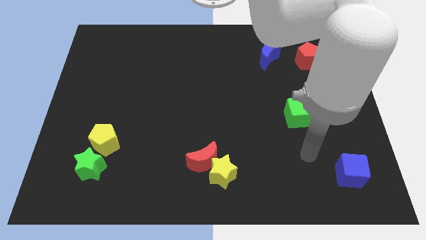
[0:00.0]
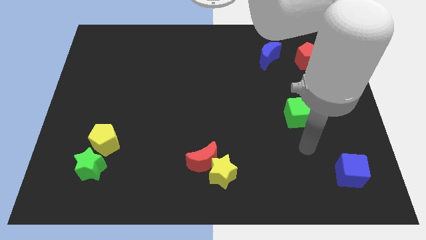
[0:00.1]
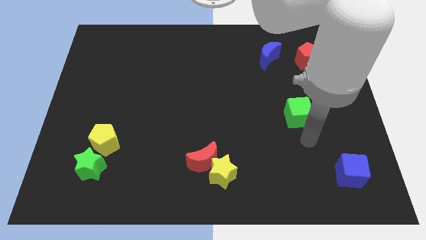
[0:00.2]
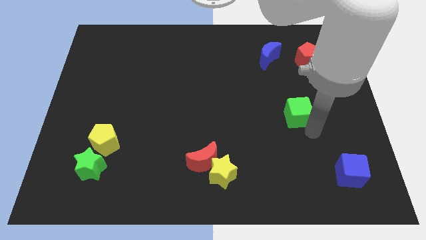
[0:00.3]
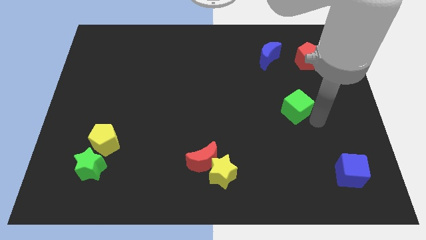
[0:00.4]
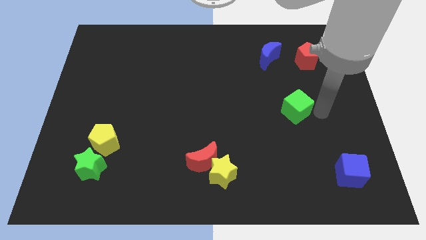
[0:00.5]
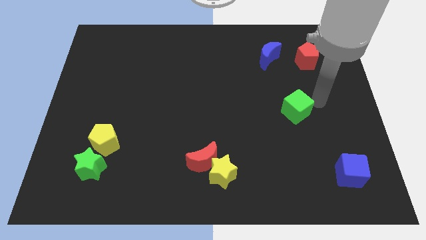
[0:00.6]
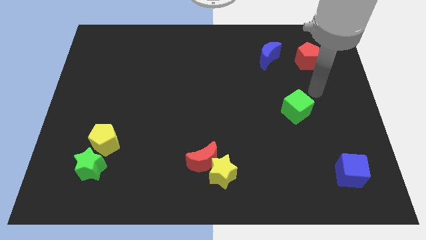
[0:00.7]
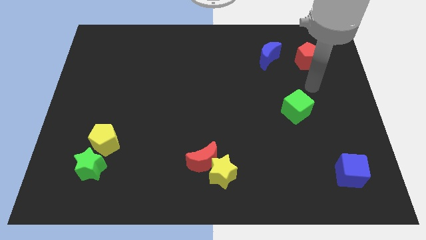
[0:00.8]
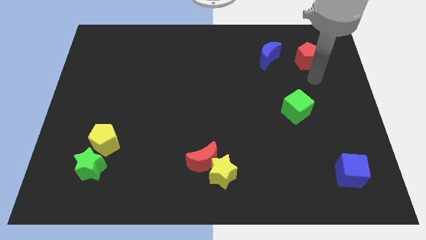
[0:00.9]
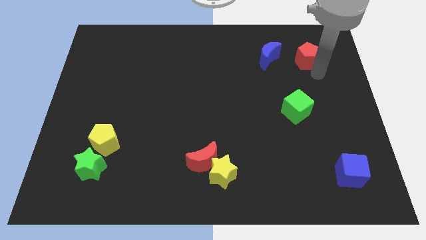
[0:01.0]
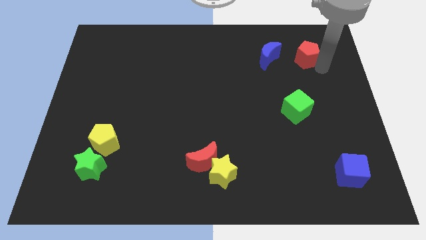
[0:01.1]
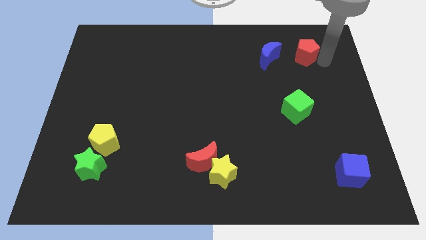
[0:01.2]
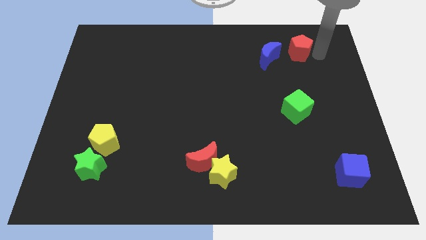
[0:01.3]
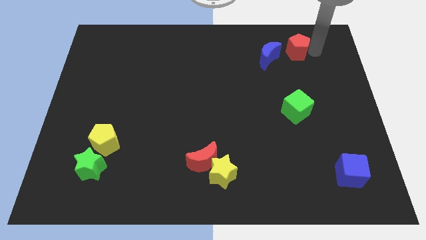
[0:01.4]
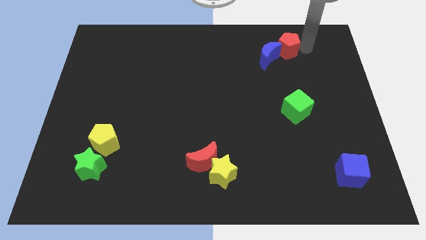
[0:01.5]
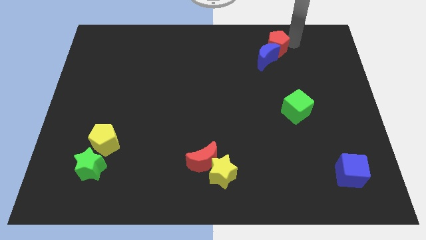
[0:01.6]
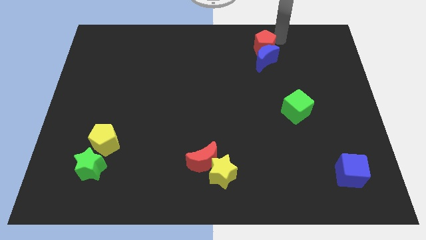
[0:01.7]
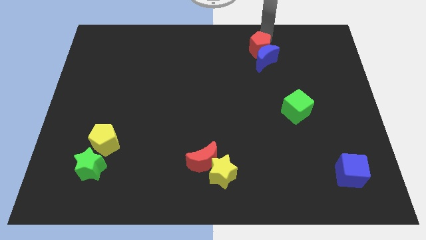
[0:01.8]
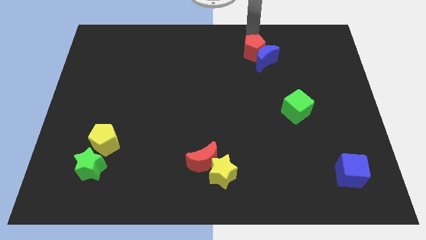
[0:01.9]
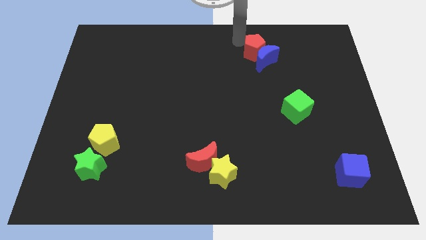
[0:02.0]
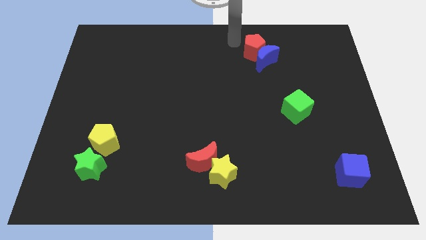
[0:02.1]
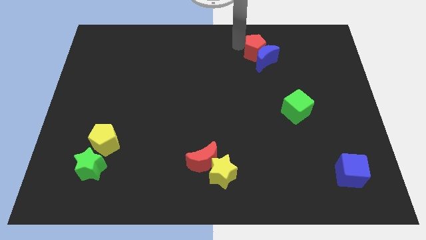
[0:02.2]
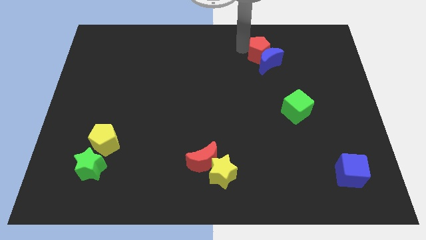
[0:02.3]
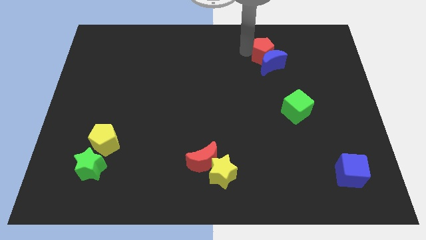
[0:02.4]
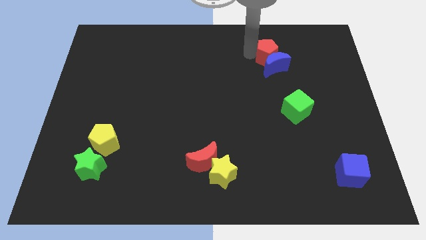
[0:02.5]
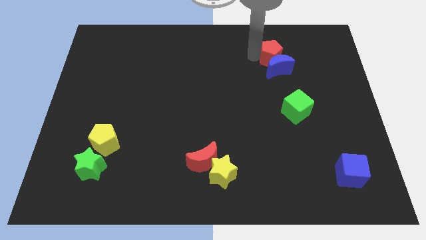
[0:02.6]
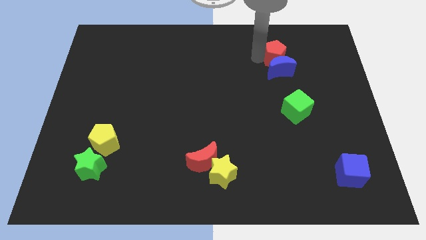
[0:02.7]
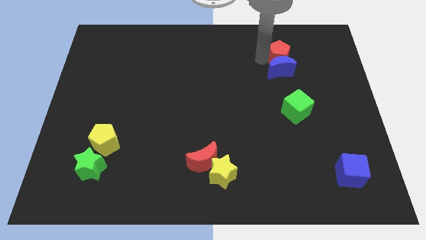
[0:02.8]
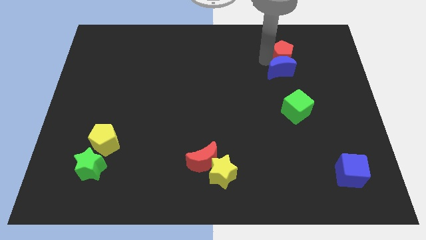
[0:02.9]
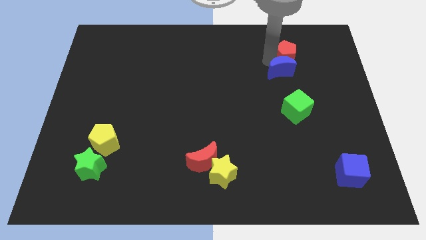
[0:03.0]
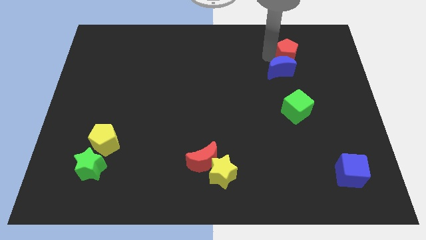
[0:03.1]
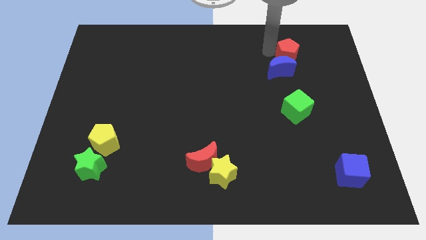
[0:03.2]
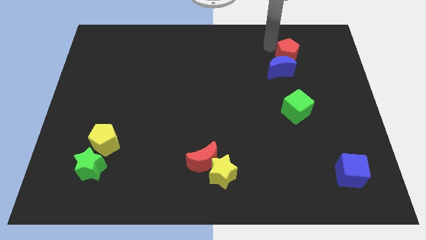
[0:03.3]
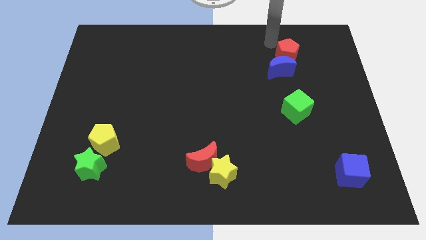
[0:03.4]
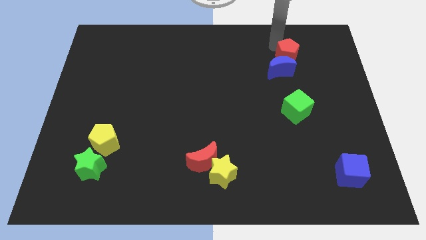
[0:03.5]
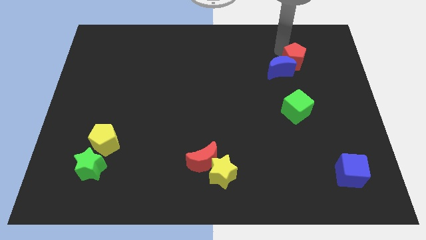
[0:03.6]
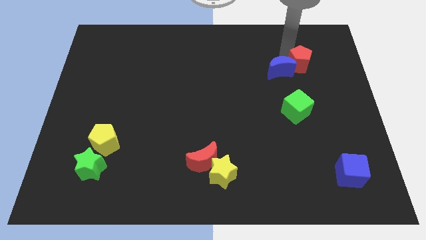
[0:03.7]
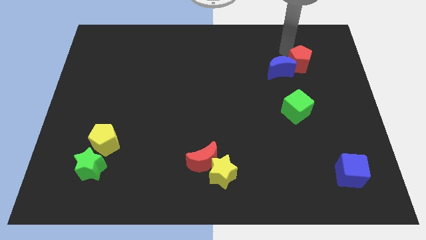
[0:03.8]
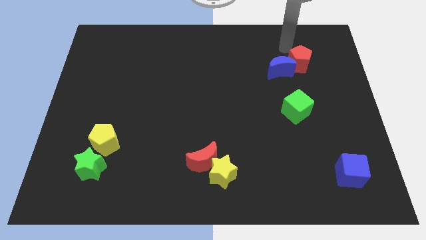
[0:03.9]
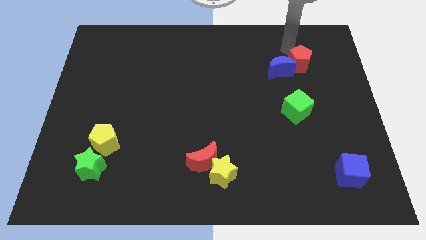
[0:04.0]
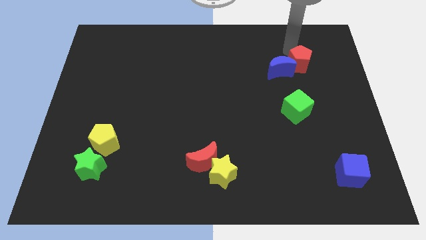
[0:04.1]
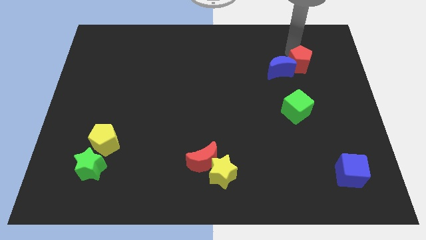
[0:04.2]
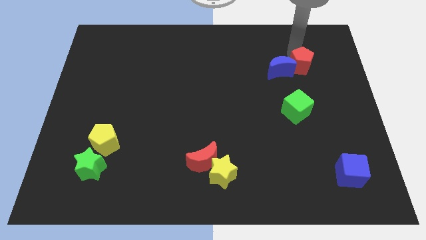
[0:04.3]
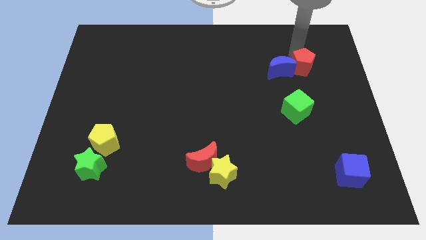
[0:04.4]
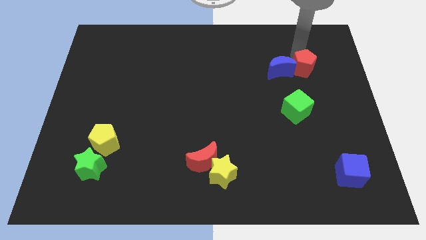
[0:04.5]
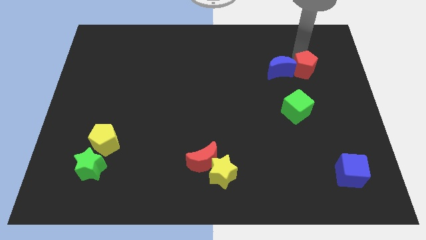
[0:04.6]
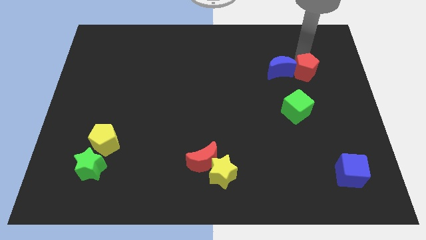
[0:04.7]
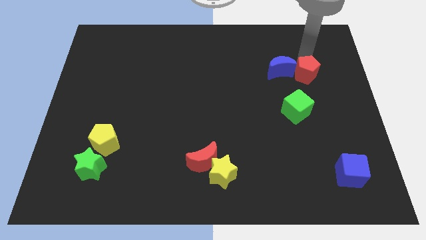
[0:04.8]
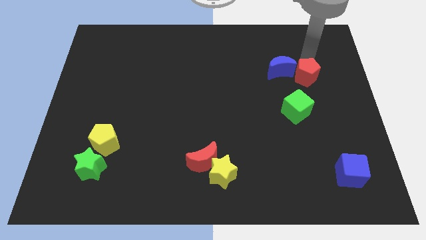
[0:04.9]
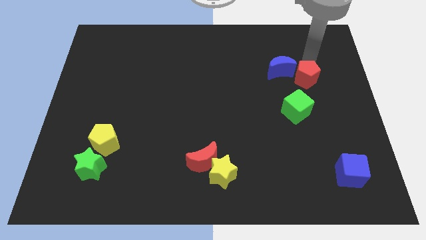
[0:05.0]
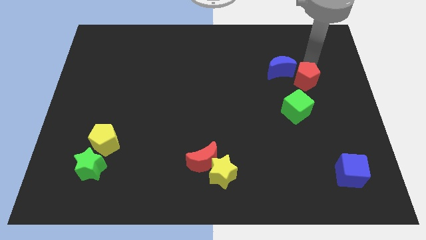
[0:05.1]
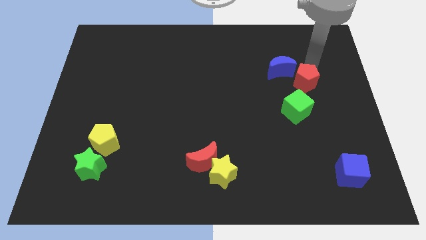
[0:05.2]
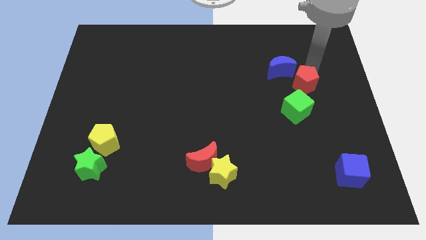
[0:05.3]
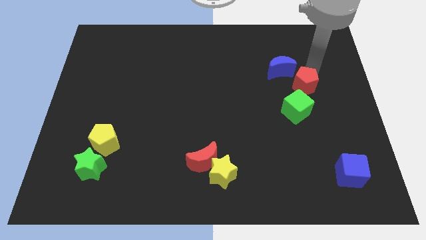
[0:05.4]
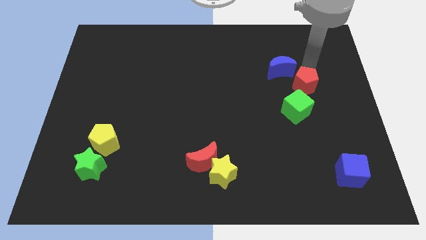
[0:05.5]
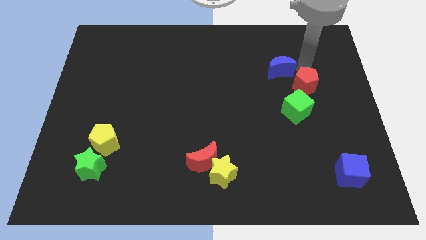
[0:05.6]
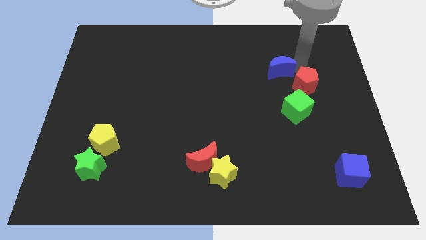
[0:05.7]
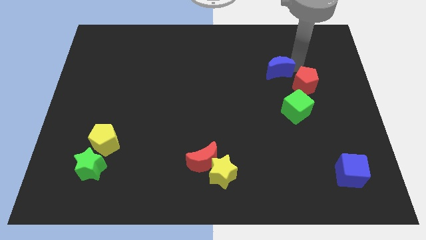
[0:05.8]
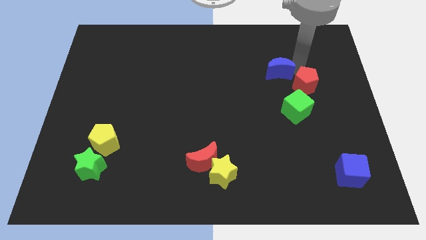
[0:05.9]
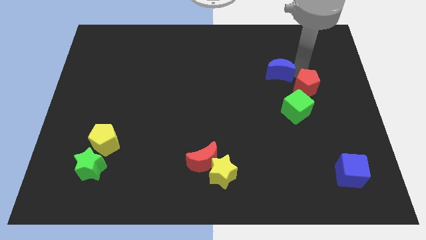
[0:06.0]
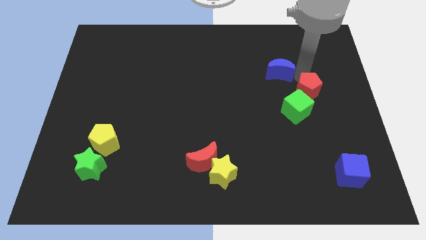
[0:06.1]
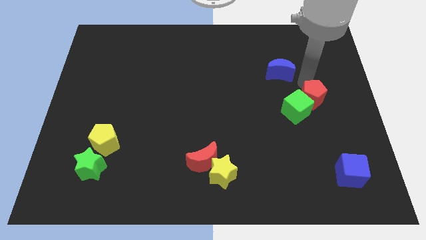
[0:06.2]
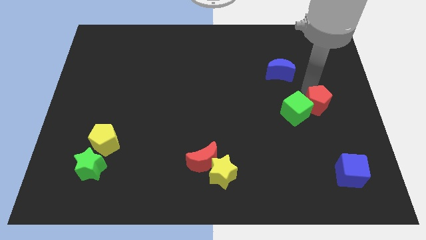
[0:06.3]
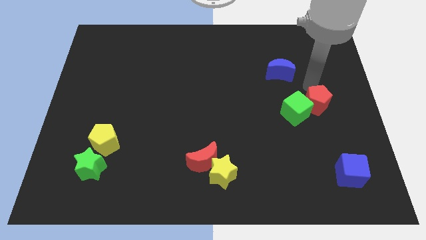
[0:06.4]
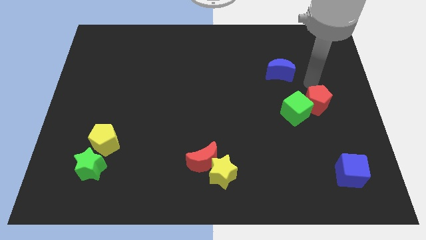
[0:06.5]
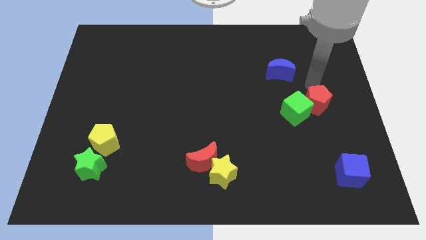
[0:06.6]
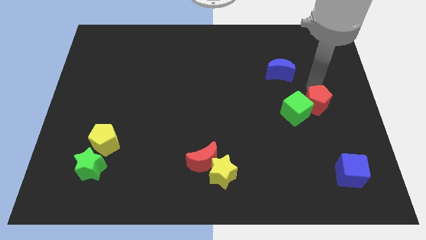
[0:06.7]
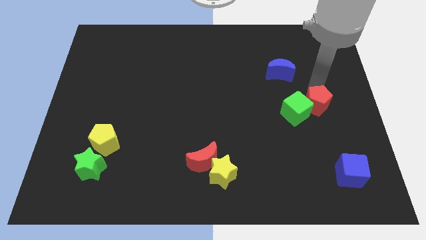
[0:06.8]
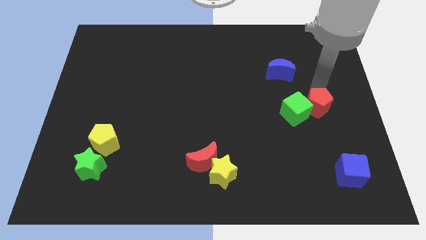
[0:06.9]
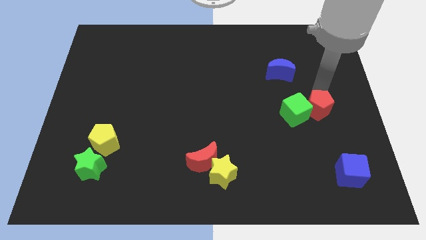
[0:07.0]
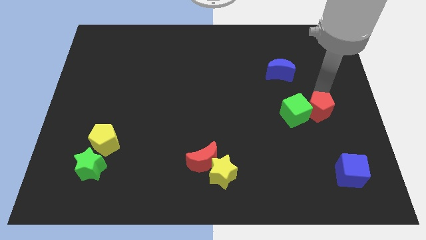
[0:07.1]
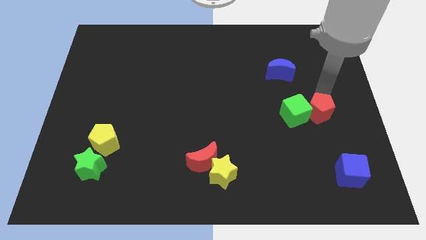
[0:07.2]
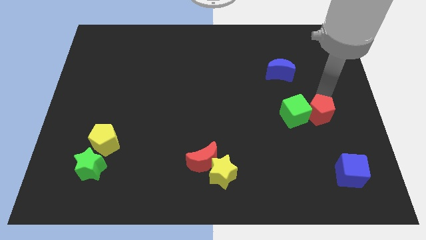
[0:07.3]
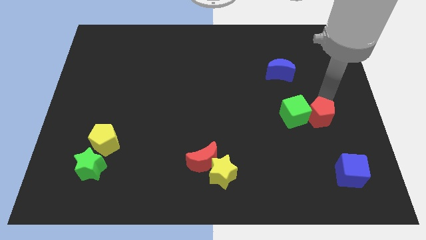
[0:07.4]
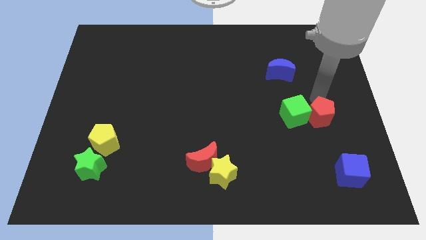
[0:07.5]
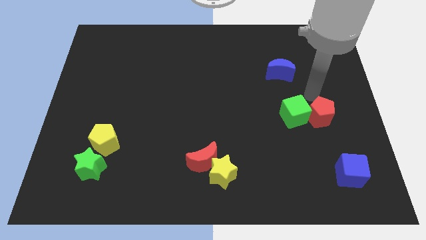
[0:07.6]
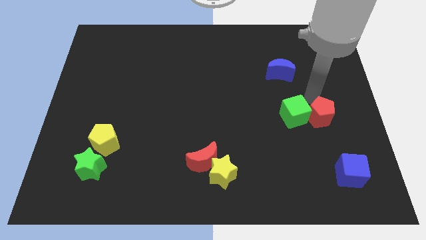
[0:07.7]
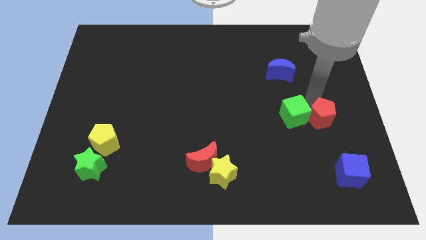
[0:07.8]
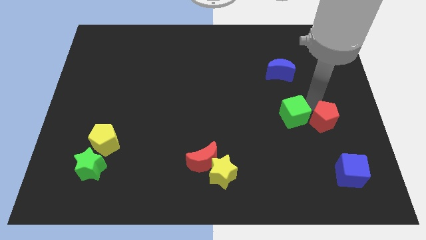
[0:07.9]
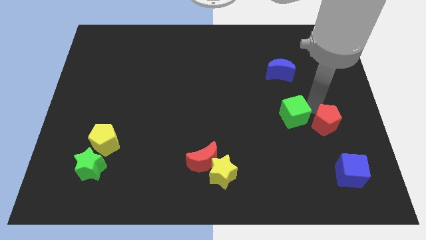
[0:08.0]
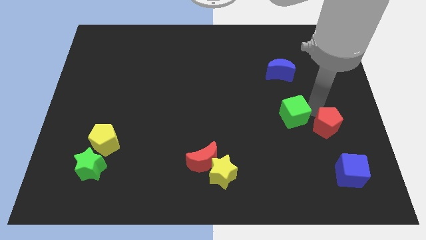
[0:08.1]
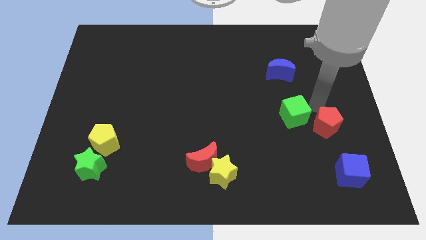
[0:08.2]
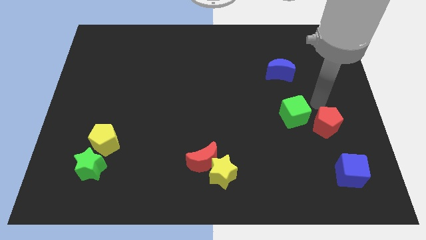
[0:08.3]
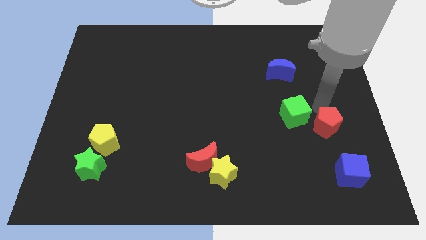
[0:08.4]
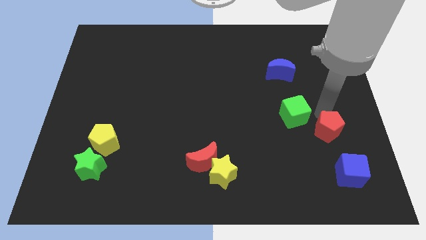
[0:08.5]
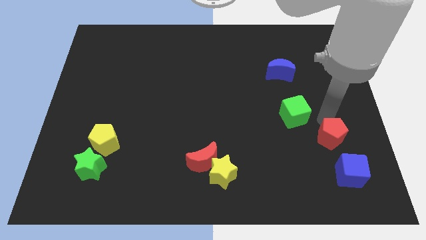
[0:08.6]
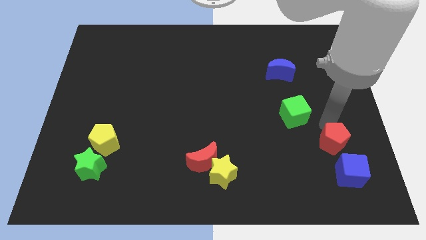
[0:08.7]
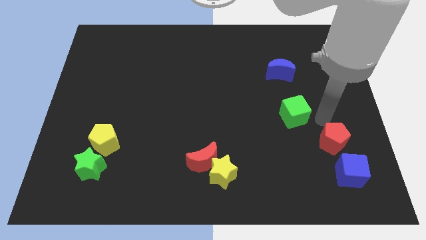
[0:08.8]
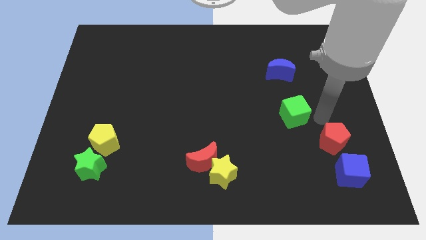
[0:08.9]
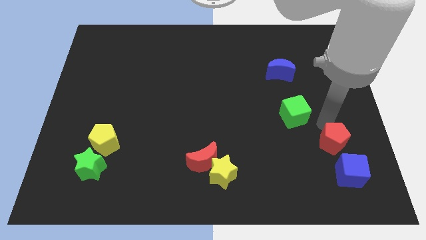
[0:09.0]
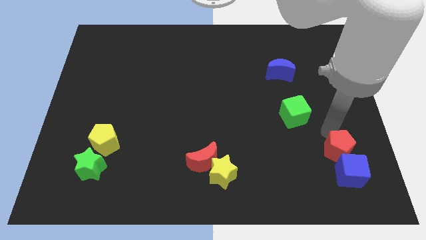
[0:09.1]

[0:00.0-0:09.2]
slide the red pentagon next to the blue cube
